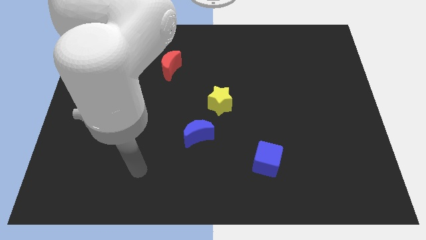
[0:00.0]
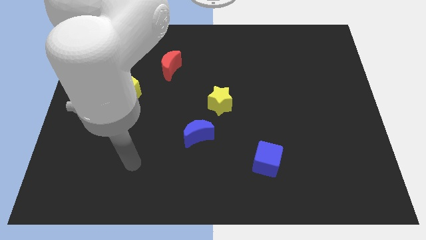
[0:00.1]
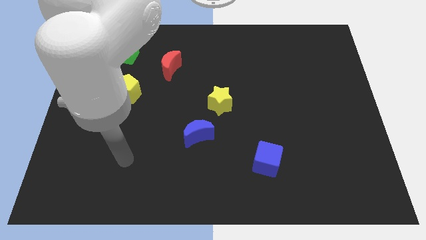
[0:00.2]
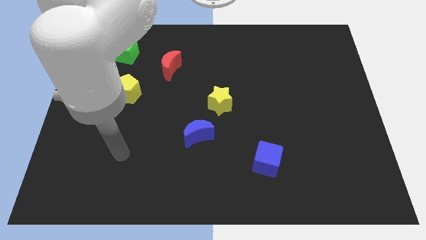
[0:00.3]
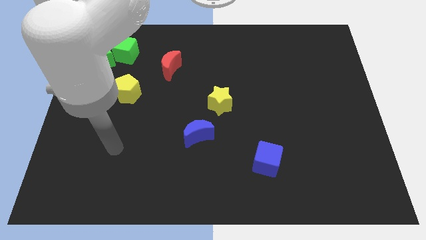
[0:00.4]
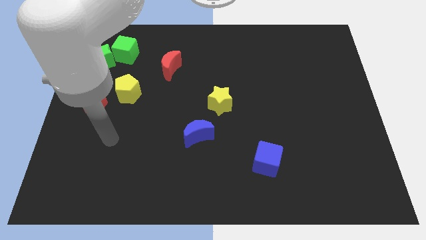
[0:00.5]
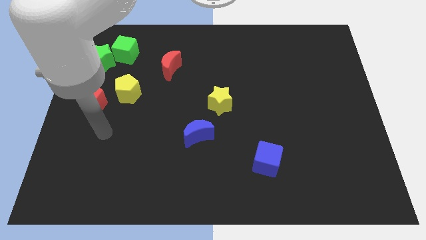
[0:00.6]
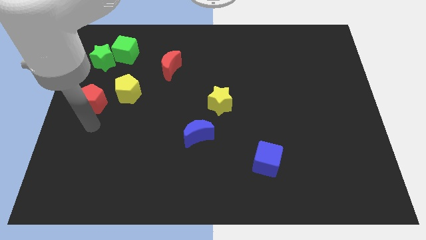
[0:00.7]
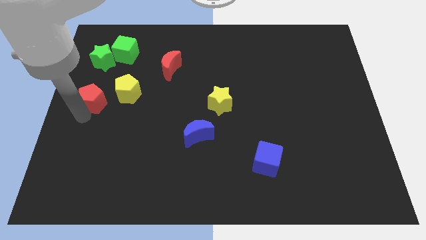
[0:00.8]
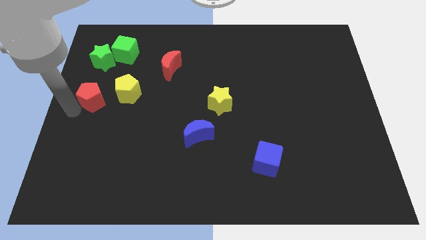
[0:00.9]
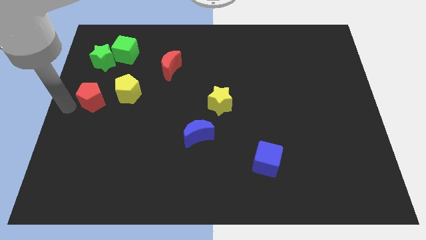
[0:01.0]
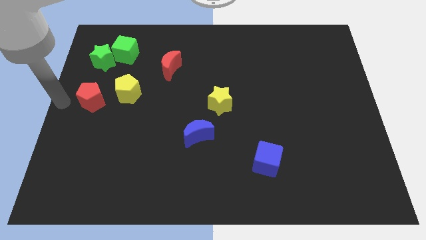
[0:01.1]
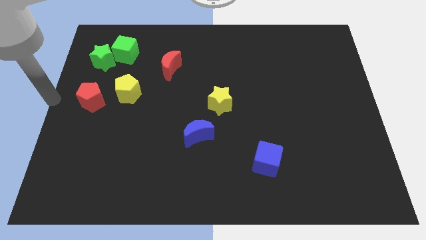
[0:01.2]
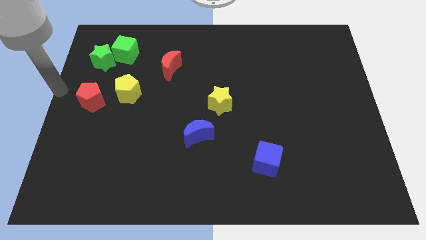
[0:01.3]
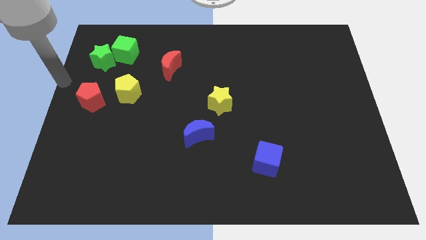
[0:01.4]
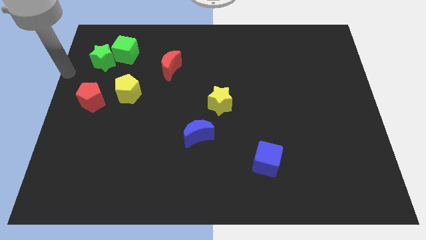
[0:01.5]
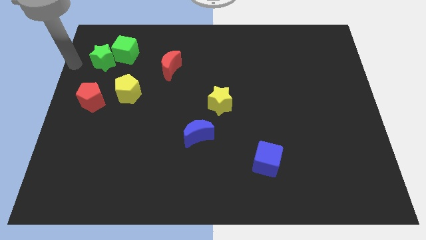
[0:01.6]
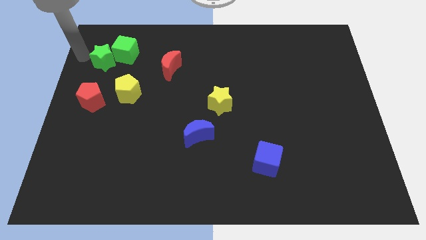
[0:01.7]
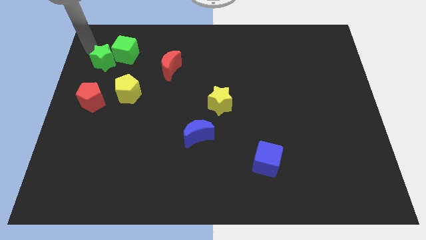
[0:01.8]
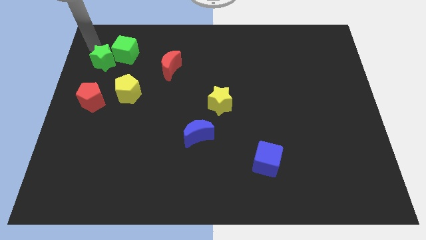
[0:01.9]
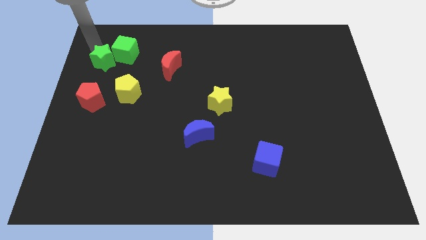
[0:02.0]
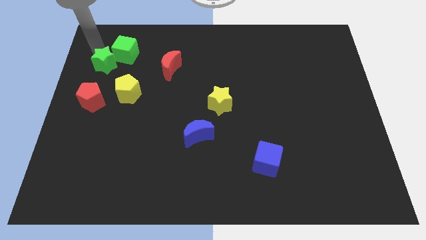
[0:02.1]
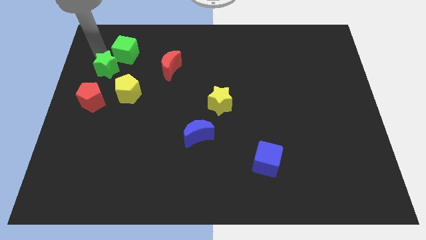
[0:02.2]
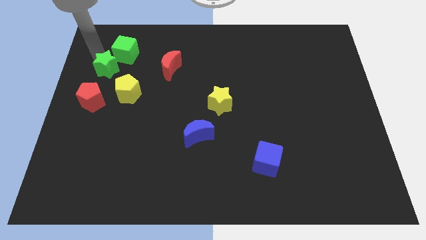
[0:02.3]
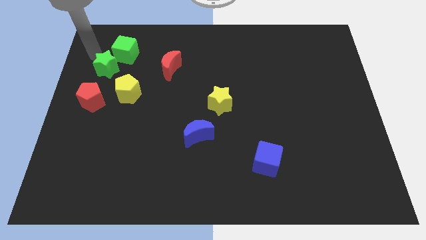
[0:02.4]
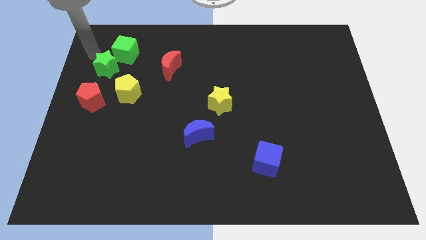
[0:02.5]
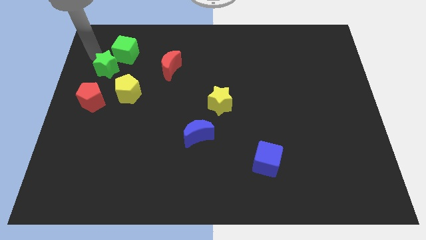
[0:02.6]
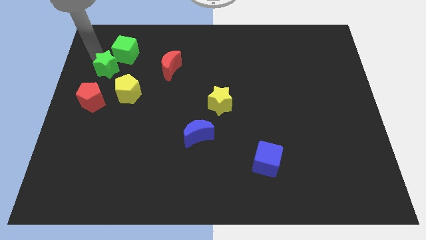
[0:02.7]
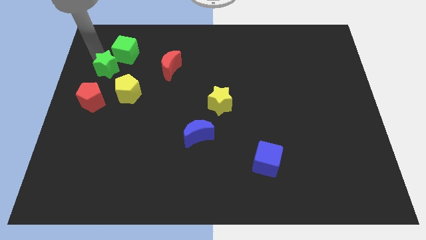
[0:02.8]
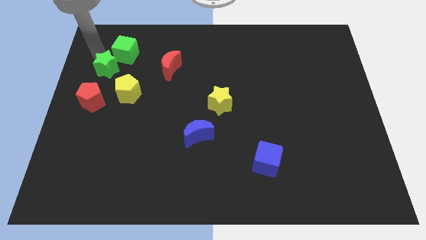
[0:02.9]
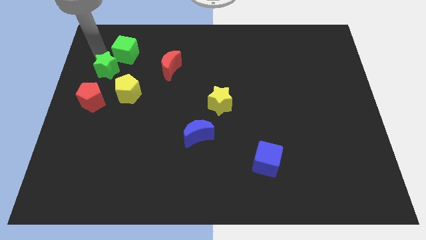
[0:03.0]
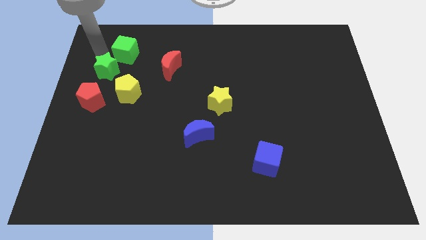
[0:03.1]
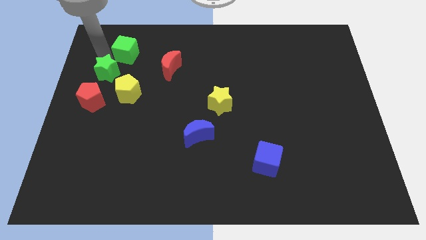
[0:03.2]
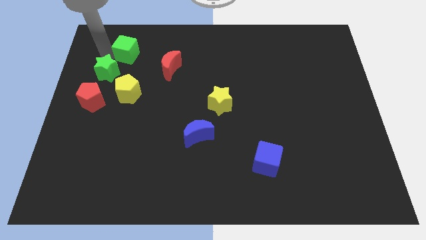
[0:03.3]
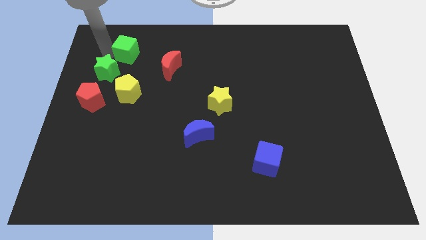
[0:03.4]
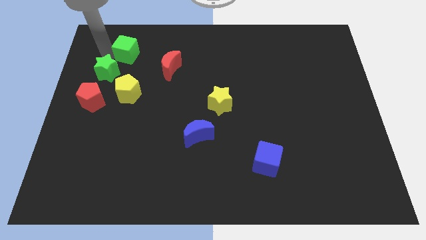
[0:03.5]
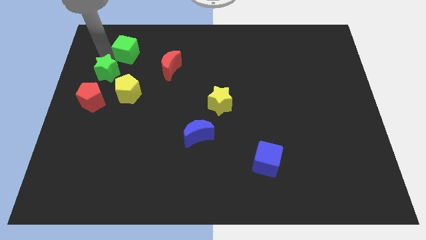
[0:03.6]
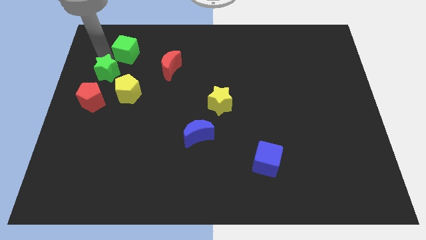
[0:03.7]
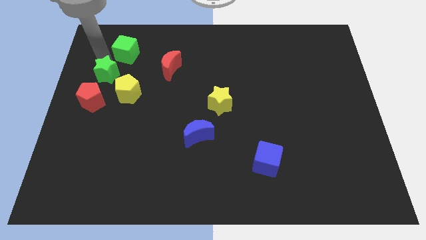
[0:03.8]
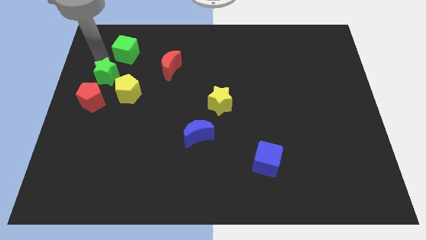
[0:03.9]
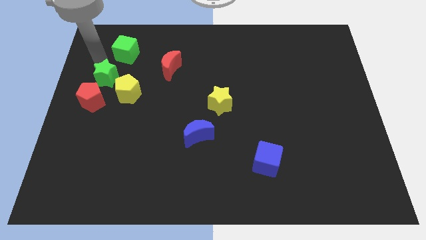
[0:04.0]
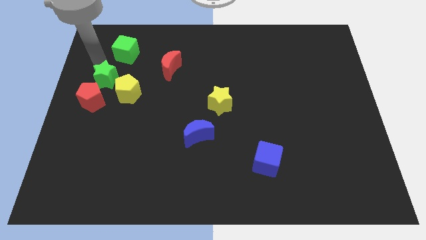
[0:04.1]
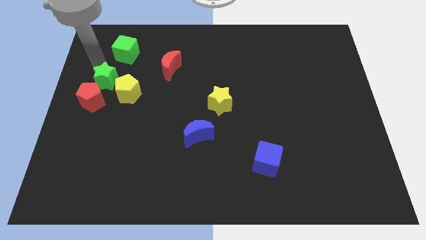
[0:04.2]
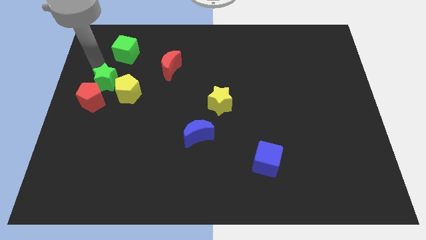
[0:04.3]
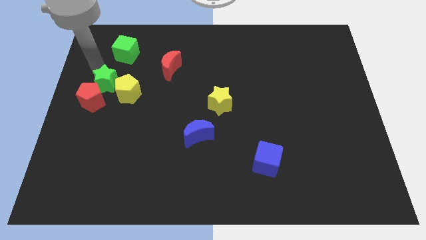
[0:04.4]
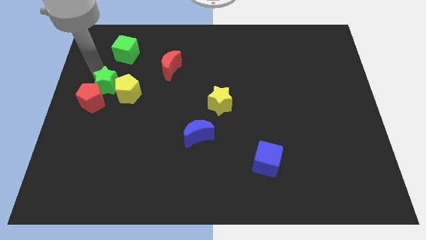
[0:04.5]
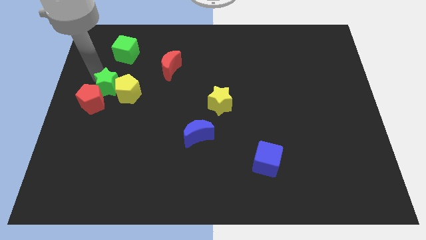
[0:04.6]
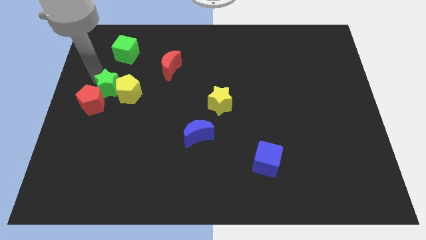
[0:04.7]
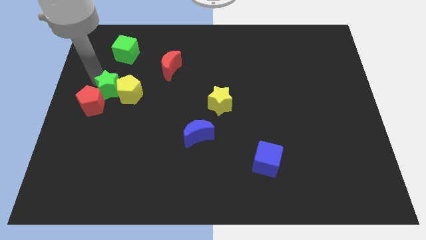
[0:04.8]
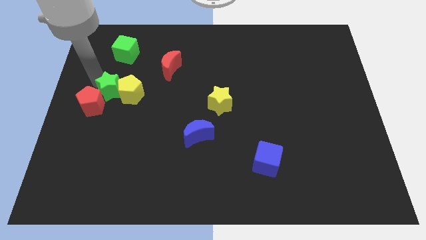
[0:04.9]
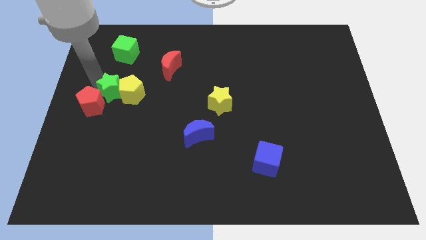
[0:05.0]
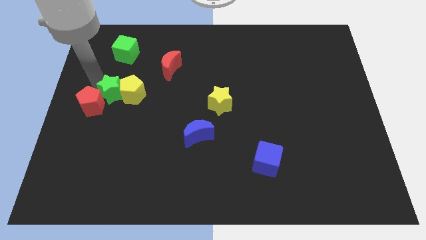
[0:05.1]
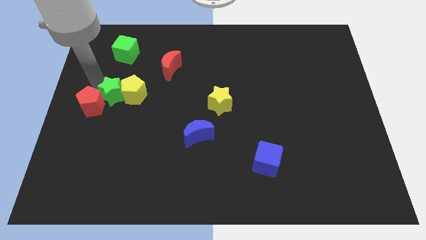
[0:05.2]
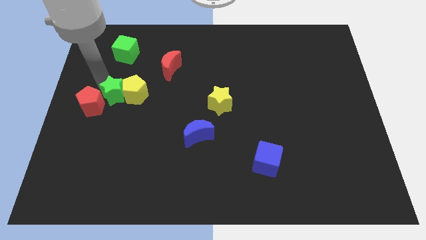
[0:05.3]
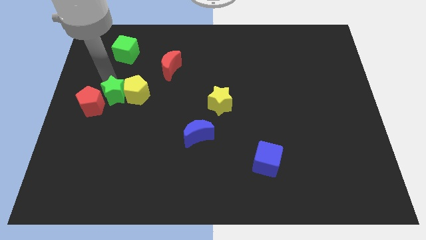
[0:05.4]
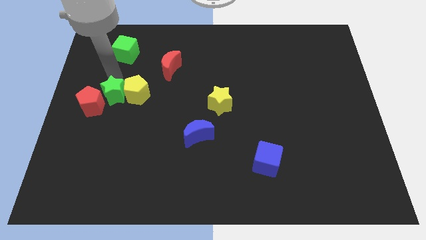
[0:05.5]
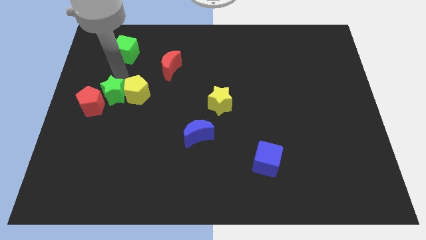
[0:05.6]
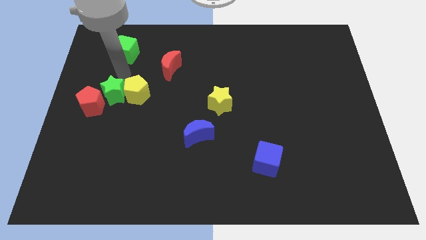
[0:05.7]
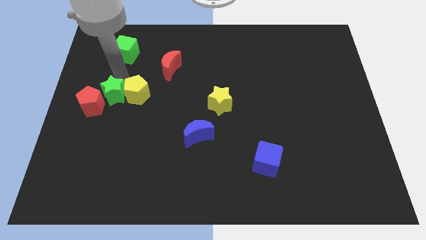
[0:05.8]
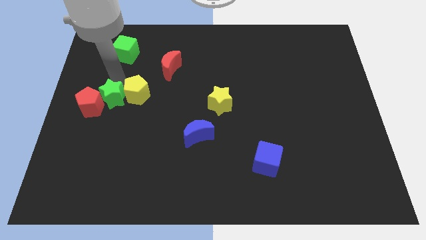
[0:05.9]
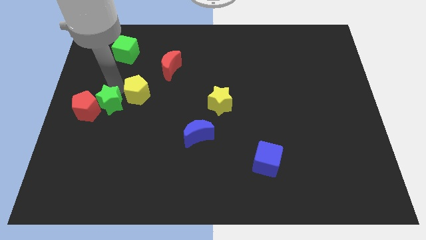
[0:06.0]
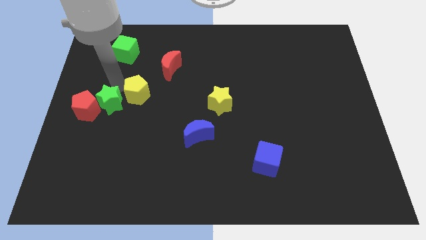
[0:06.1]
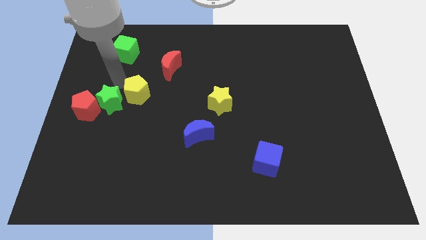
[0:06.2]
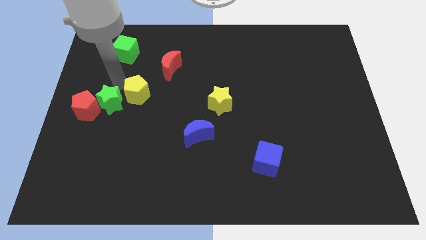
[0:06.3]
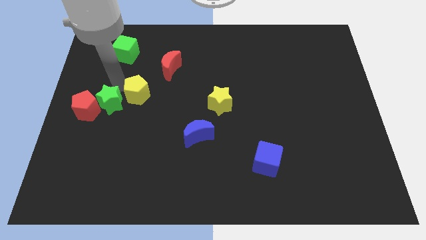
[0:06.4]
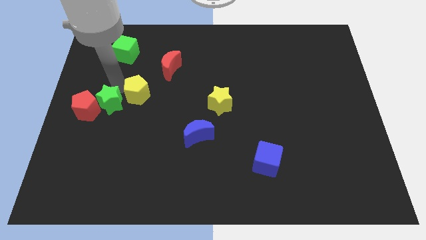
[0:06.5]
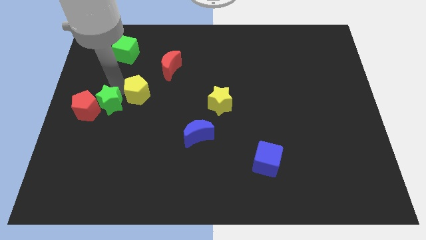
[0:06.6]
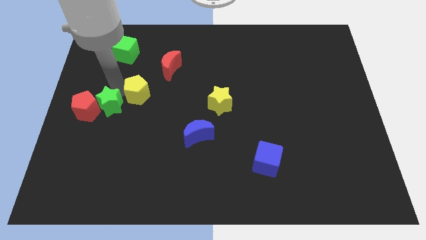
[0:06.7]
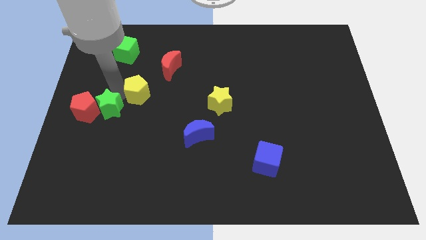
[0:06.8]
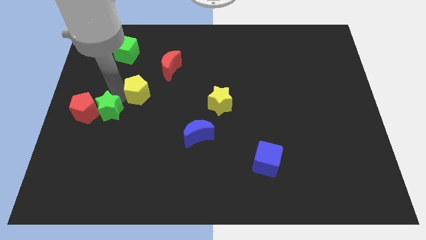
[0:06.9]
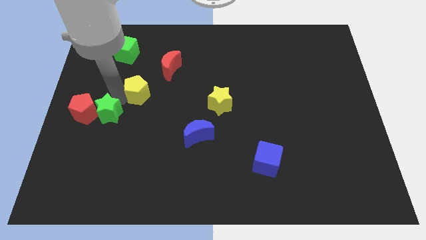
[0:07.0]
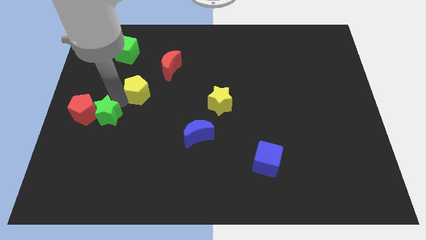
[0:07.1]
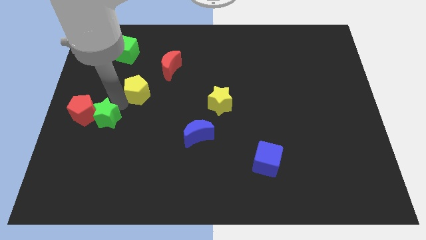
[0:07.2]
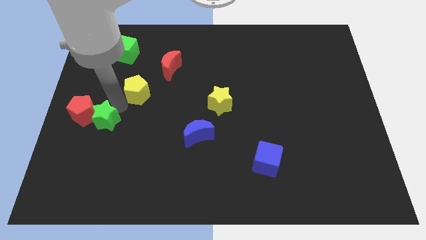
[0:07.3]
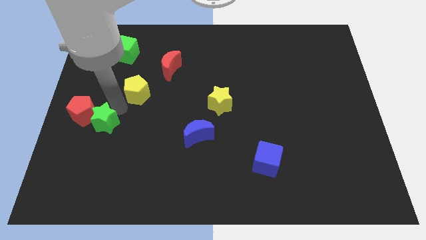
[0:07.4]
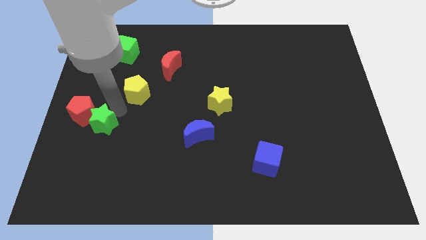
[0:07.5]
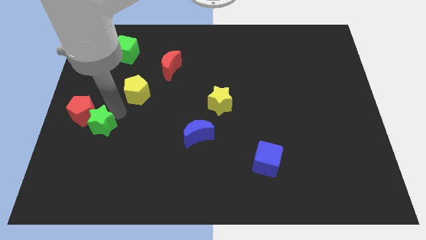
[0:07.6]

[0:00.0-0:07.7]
slide the green star downwards
